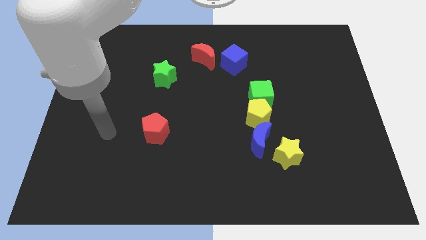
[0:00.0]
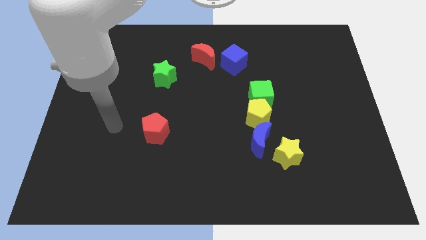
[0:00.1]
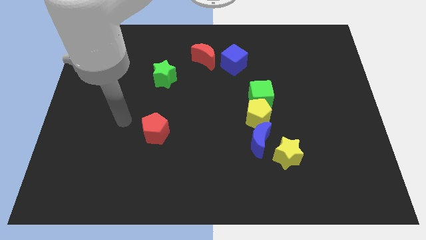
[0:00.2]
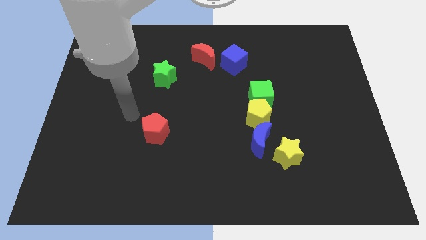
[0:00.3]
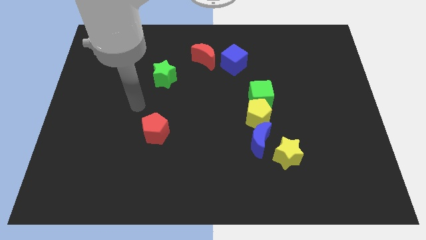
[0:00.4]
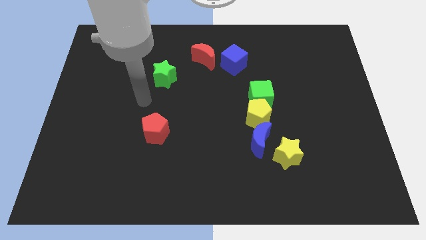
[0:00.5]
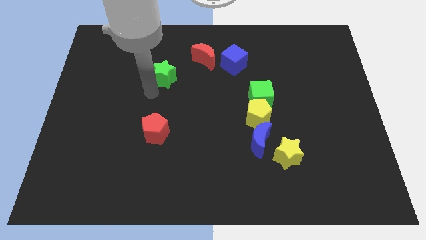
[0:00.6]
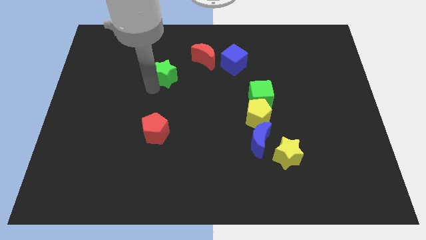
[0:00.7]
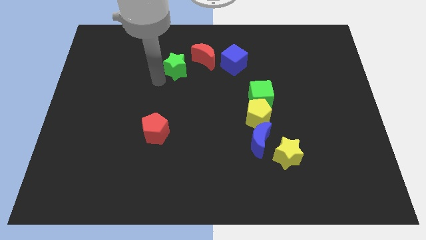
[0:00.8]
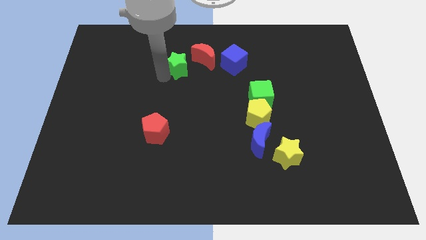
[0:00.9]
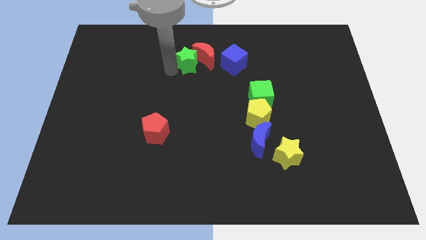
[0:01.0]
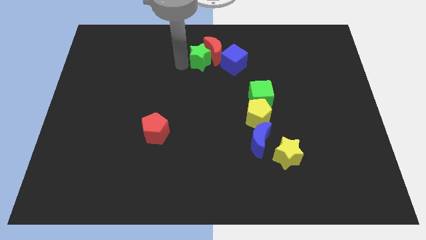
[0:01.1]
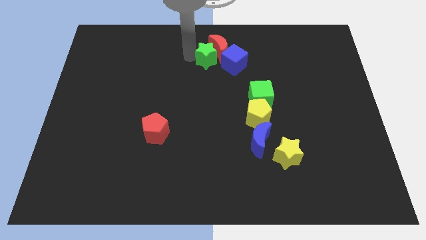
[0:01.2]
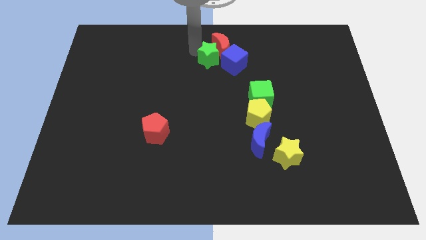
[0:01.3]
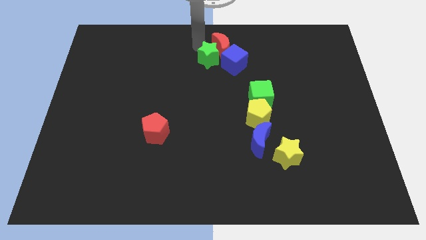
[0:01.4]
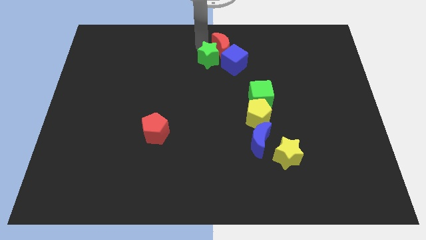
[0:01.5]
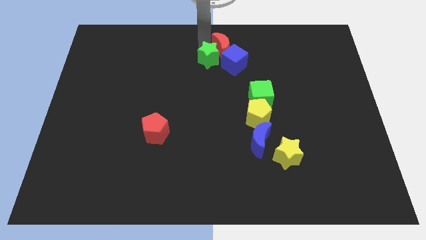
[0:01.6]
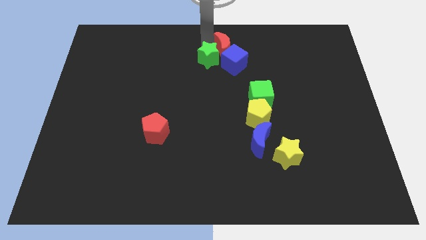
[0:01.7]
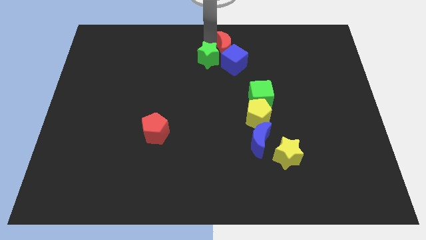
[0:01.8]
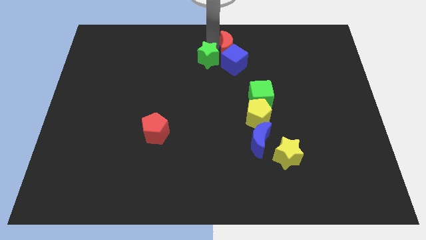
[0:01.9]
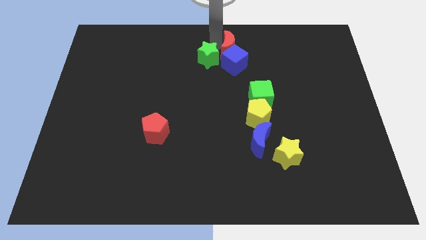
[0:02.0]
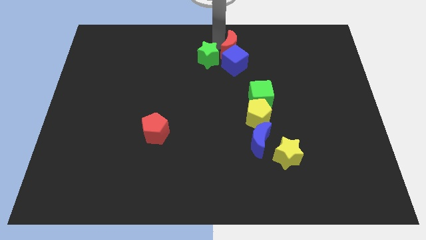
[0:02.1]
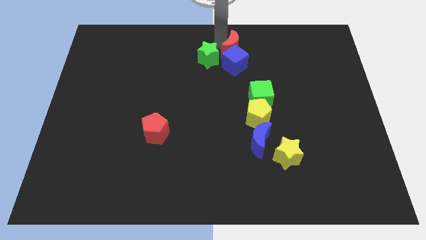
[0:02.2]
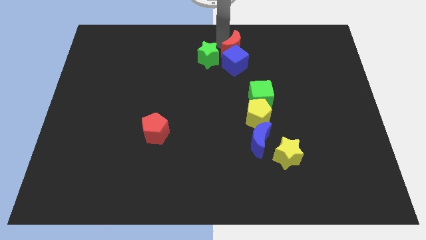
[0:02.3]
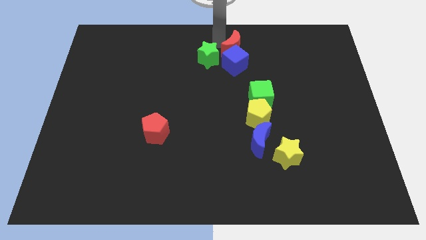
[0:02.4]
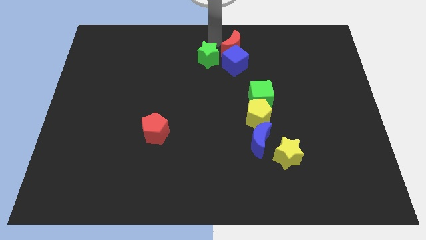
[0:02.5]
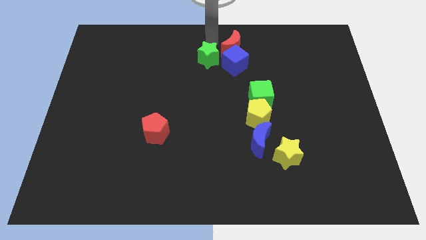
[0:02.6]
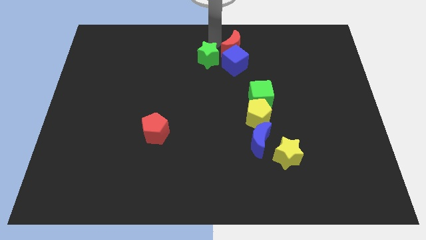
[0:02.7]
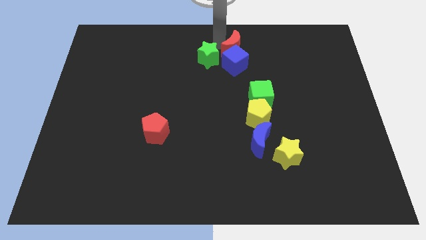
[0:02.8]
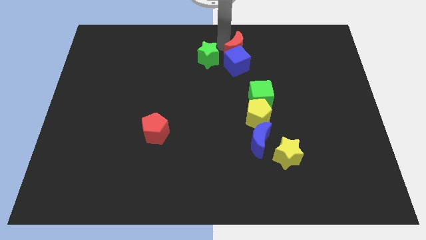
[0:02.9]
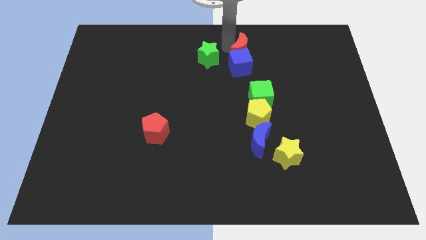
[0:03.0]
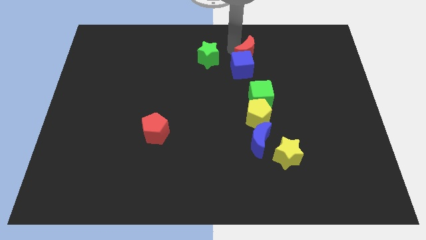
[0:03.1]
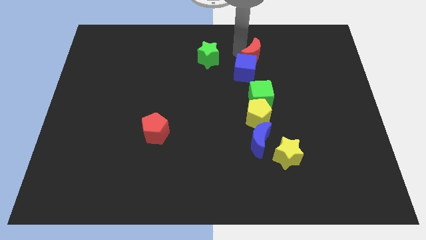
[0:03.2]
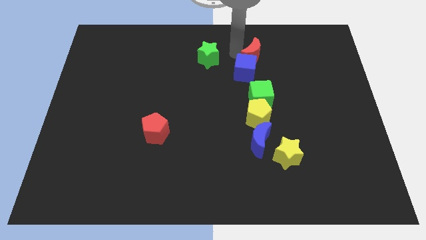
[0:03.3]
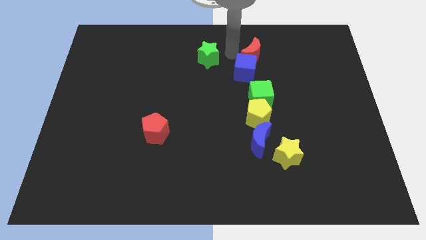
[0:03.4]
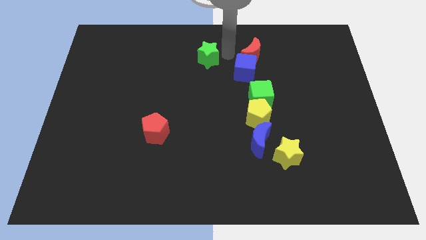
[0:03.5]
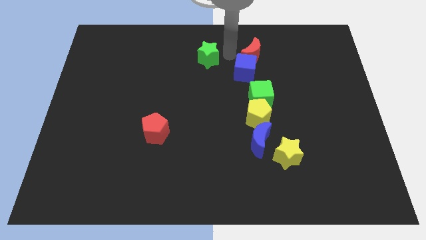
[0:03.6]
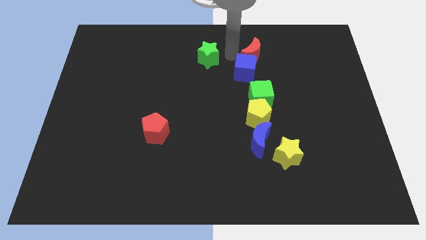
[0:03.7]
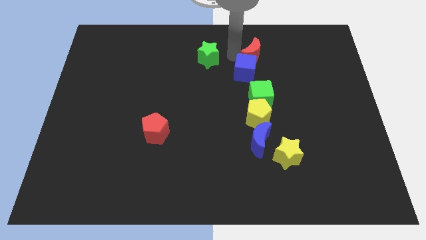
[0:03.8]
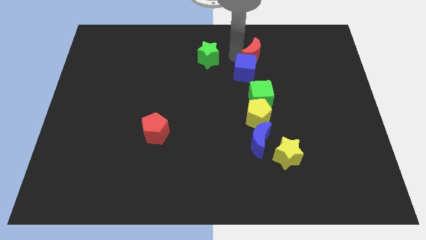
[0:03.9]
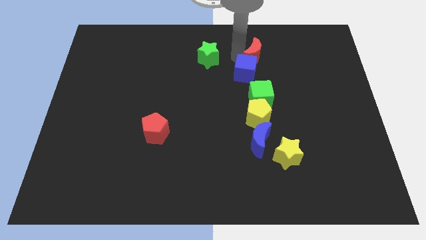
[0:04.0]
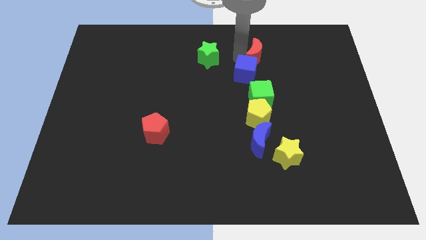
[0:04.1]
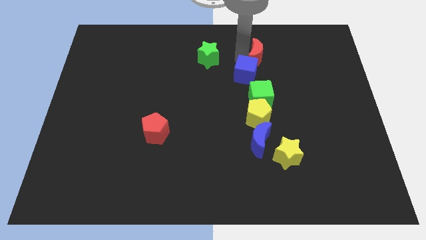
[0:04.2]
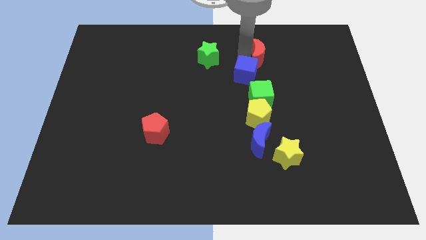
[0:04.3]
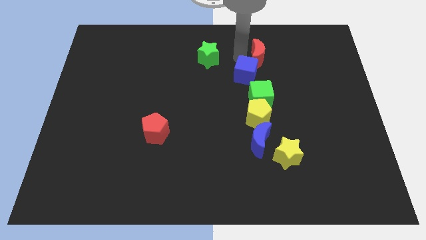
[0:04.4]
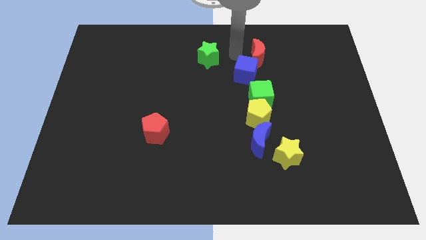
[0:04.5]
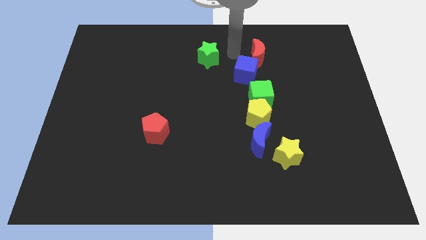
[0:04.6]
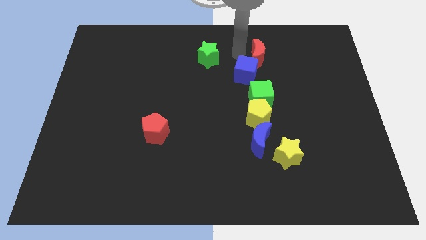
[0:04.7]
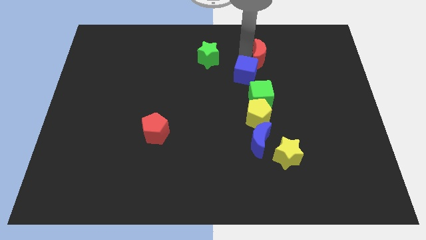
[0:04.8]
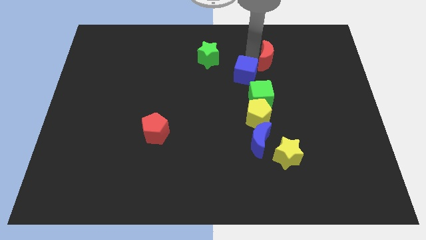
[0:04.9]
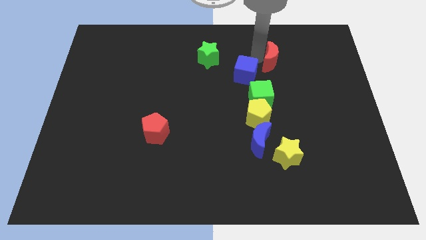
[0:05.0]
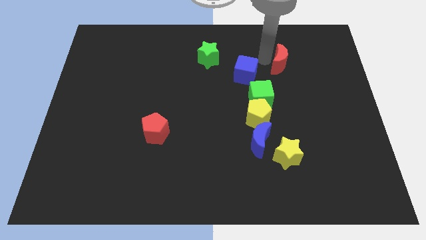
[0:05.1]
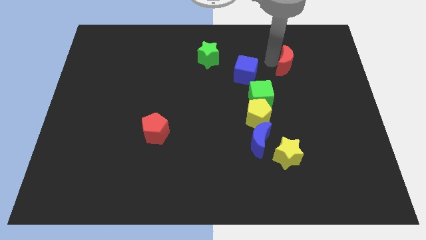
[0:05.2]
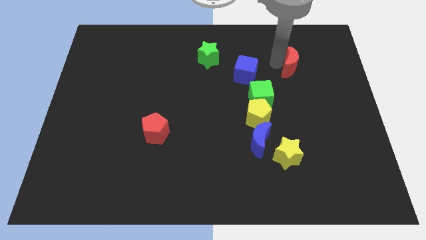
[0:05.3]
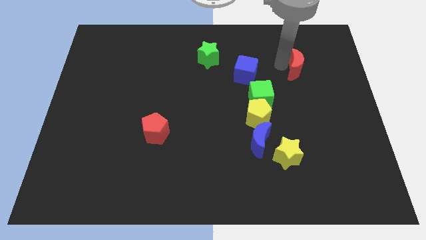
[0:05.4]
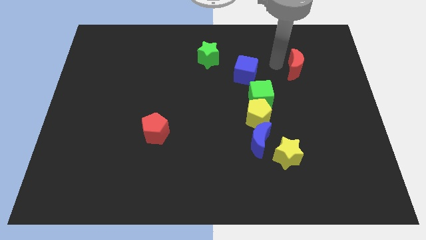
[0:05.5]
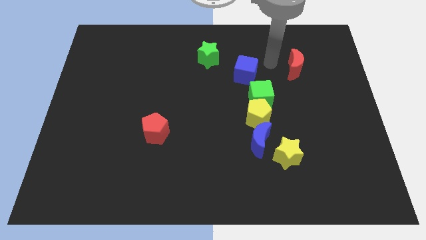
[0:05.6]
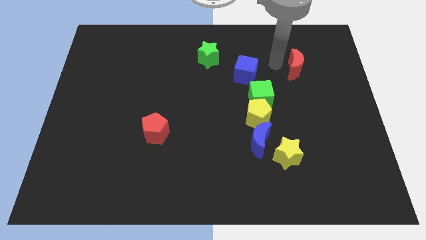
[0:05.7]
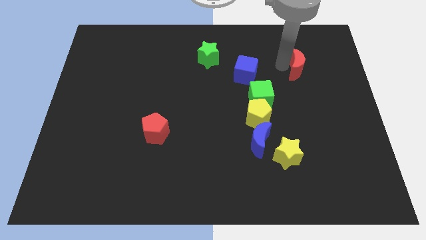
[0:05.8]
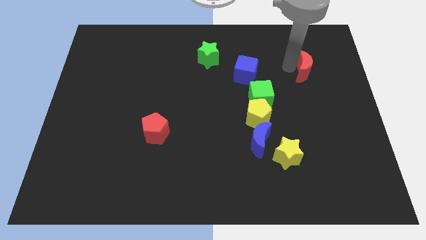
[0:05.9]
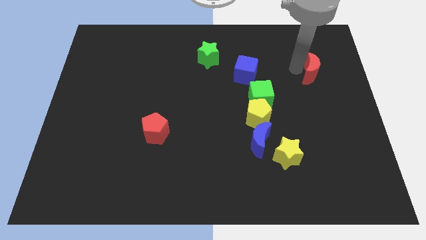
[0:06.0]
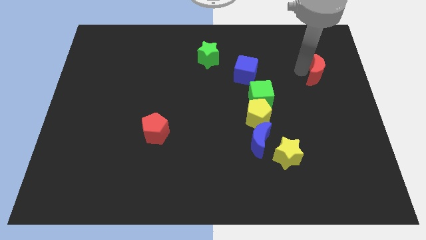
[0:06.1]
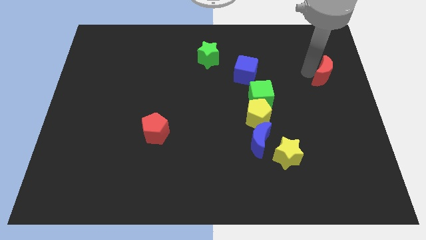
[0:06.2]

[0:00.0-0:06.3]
push the red moon to the center right
